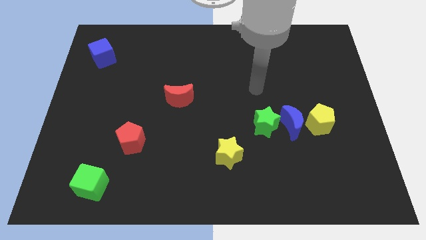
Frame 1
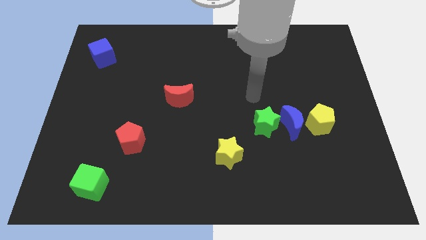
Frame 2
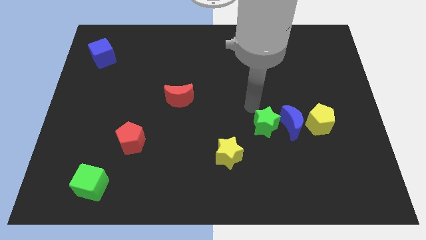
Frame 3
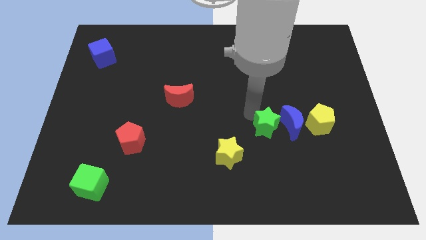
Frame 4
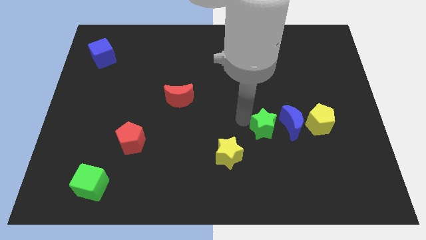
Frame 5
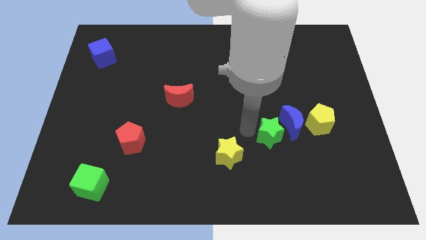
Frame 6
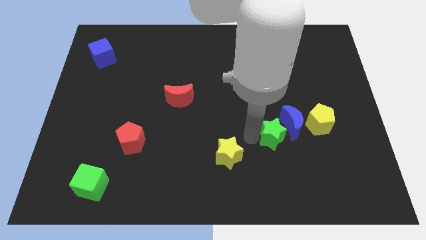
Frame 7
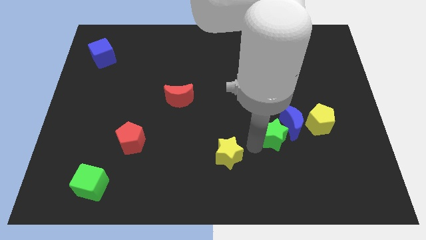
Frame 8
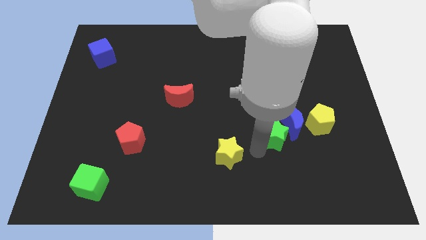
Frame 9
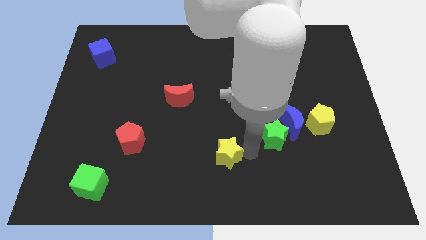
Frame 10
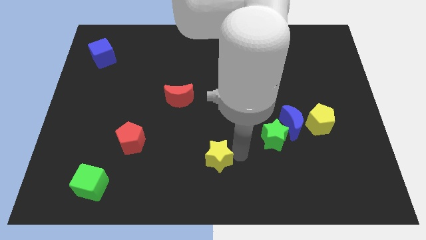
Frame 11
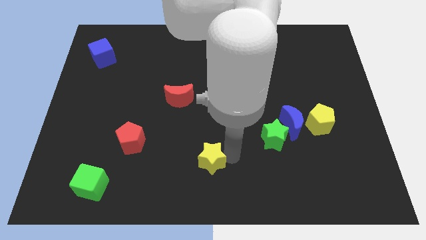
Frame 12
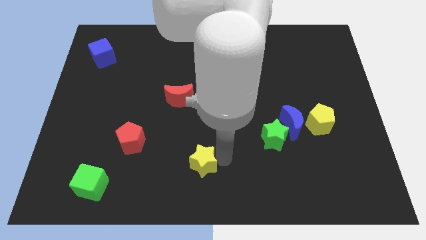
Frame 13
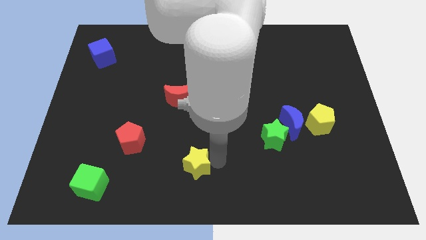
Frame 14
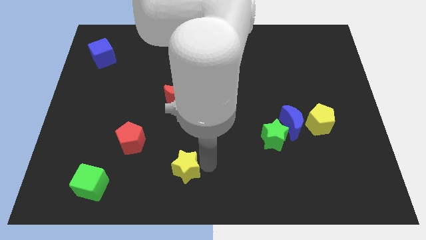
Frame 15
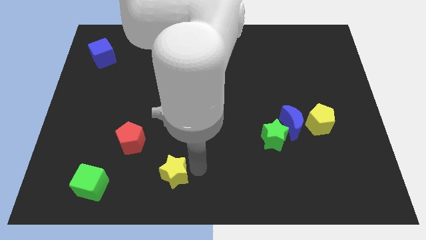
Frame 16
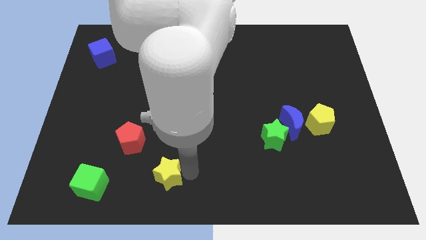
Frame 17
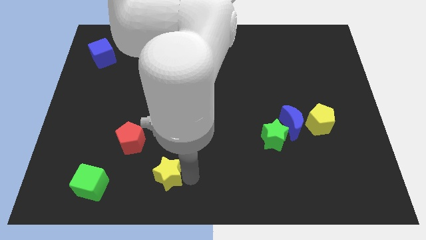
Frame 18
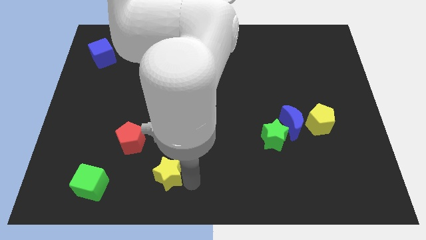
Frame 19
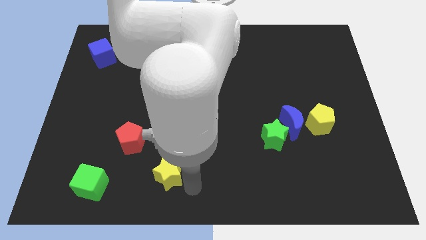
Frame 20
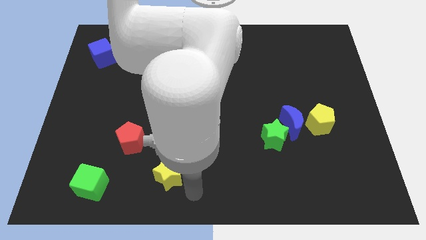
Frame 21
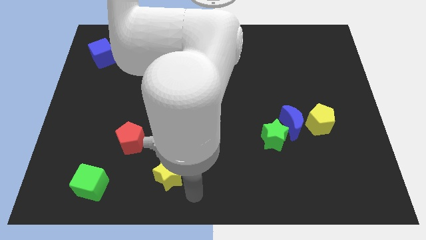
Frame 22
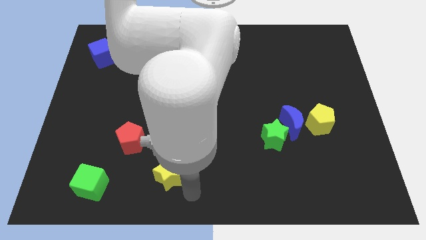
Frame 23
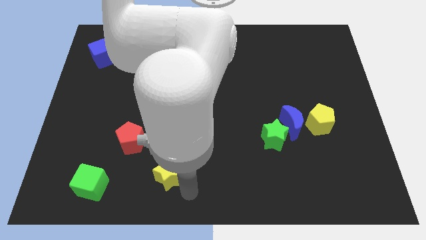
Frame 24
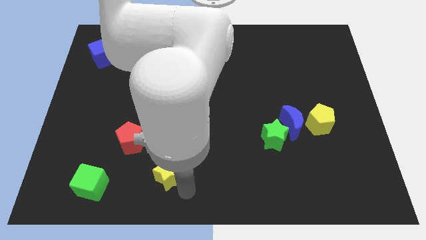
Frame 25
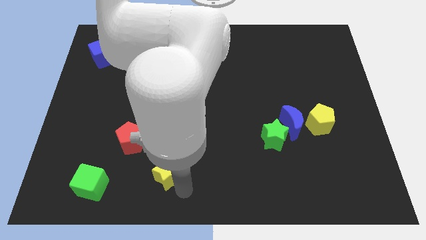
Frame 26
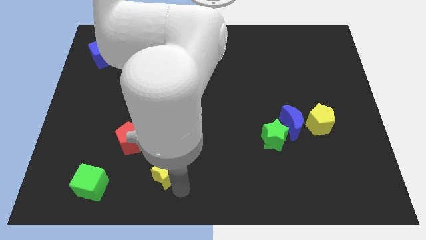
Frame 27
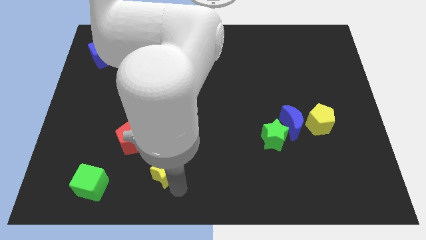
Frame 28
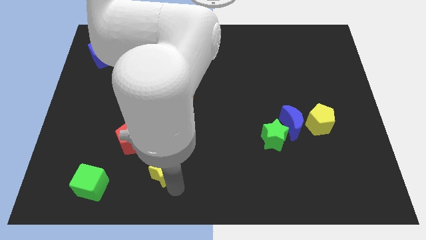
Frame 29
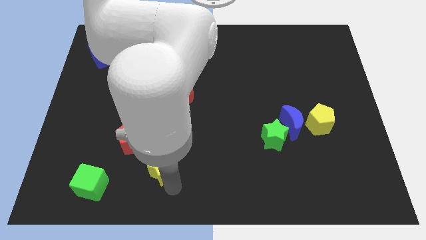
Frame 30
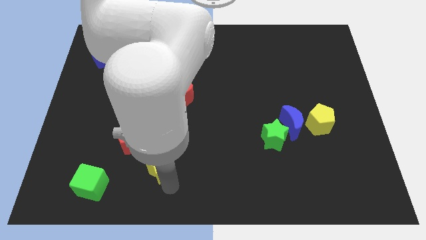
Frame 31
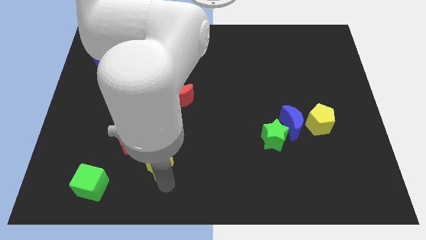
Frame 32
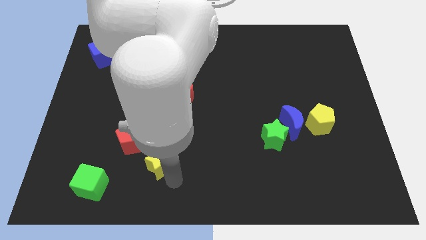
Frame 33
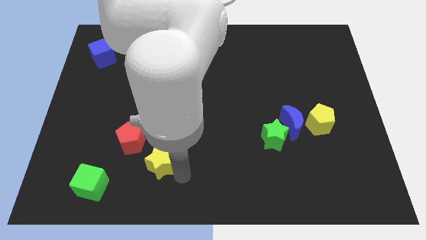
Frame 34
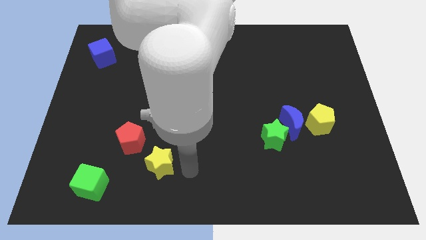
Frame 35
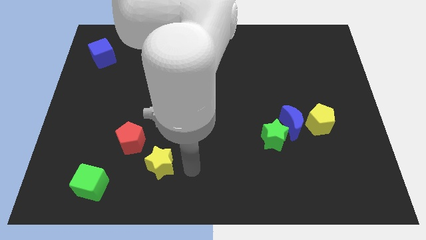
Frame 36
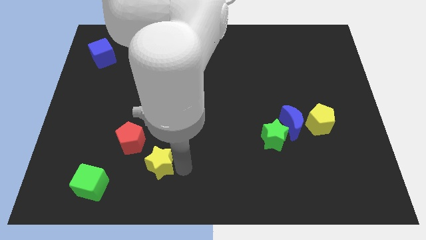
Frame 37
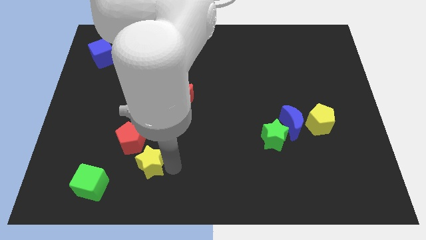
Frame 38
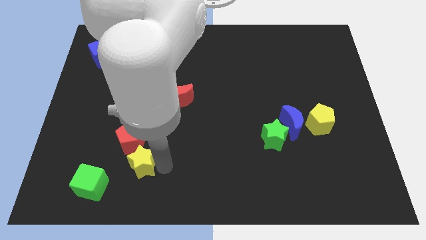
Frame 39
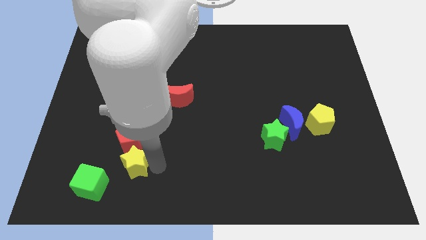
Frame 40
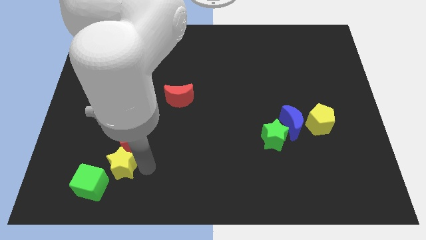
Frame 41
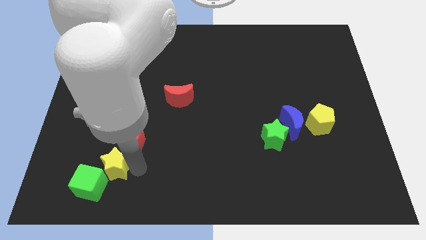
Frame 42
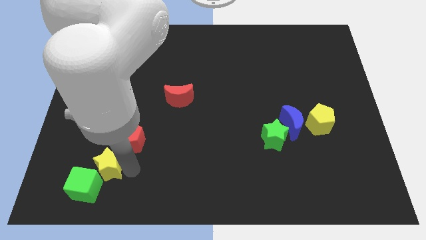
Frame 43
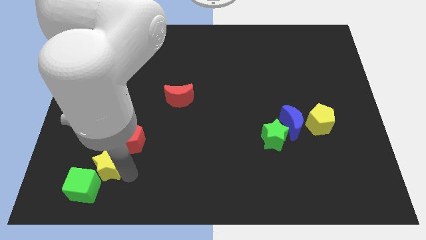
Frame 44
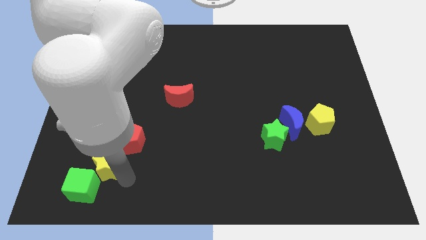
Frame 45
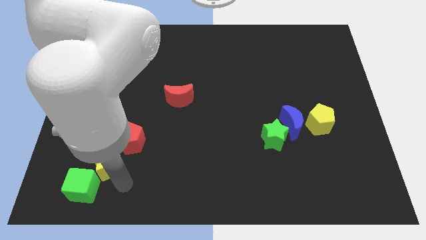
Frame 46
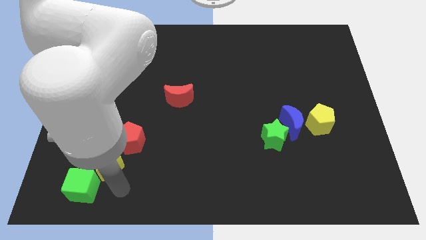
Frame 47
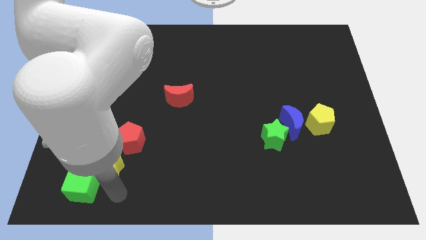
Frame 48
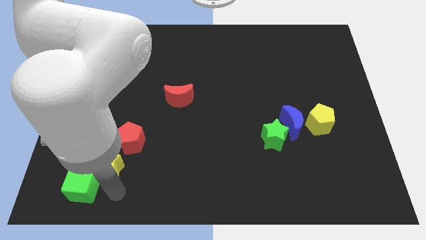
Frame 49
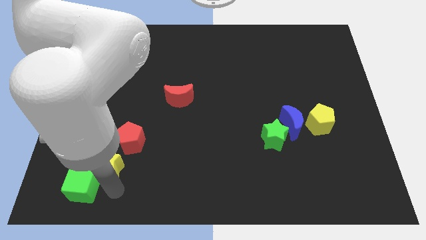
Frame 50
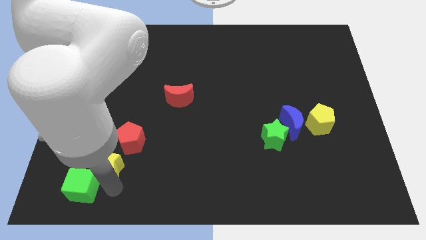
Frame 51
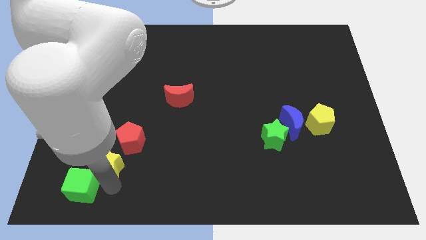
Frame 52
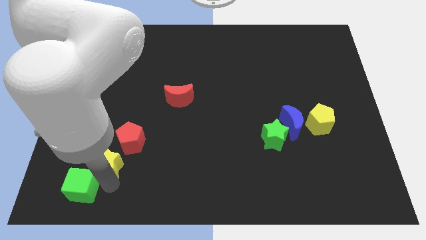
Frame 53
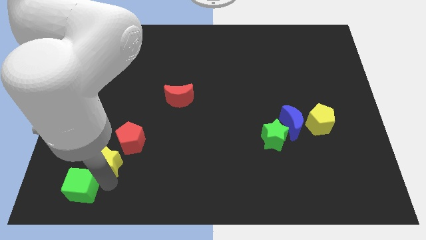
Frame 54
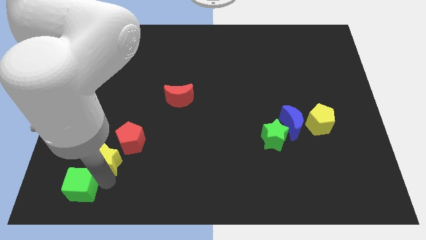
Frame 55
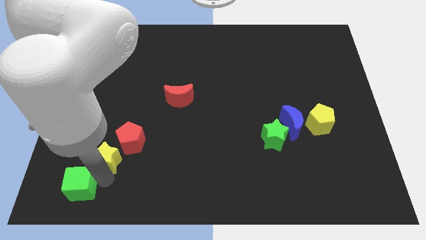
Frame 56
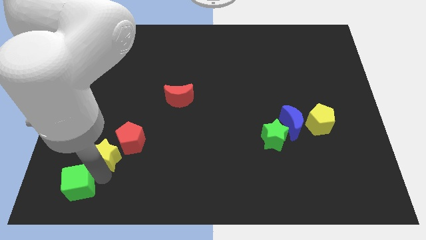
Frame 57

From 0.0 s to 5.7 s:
push the yellow star to the left side of the red pentagon

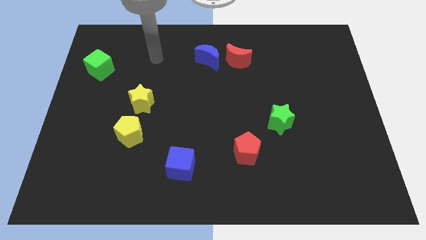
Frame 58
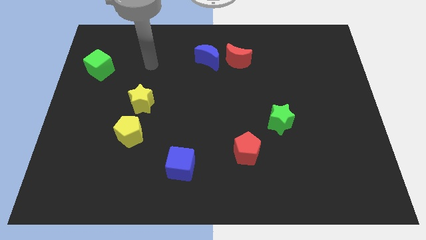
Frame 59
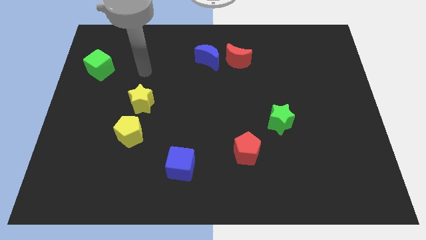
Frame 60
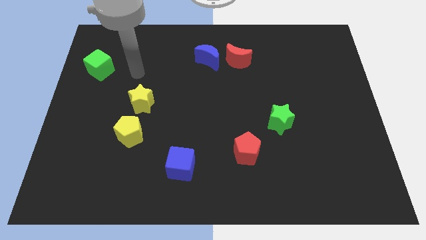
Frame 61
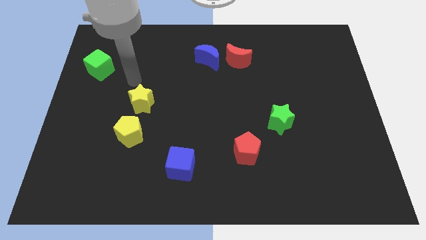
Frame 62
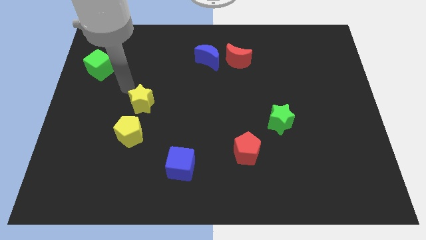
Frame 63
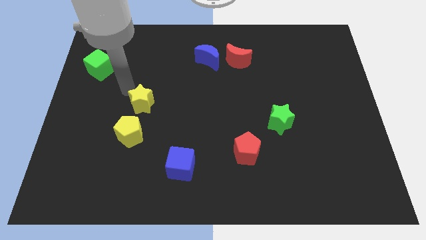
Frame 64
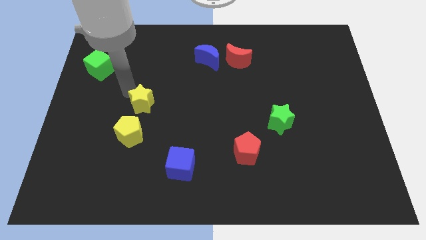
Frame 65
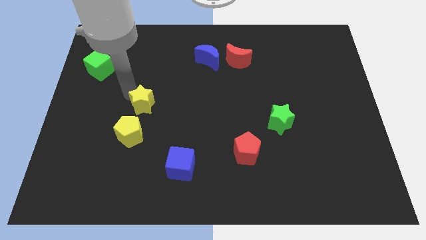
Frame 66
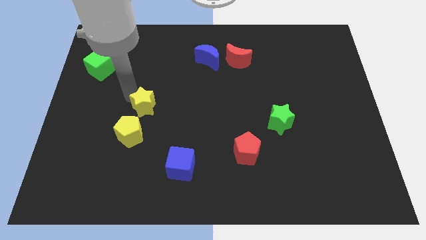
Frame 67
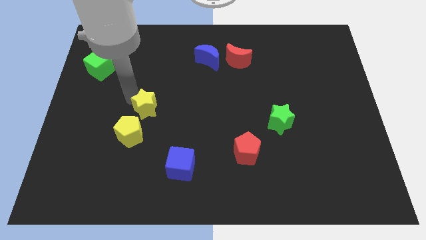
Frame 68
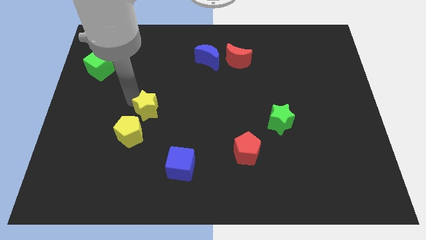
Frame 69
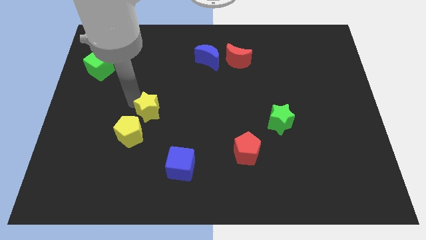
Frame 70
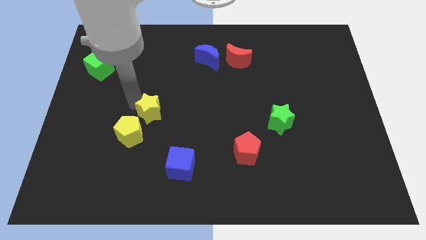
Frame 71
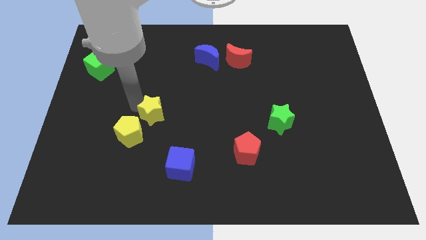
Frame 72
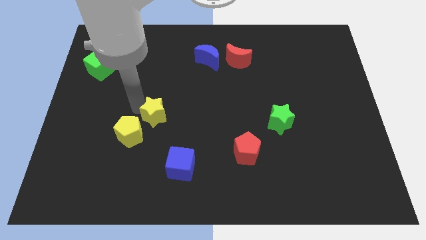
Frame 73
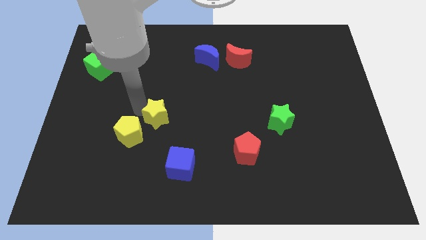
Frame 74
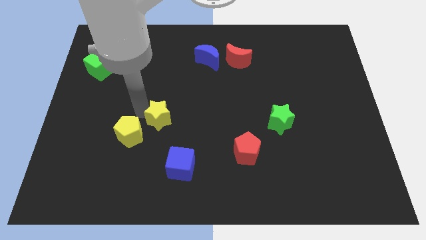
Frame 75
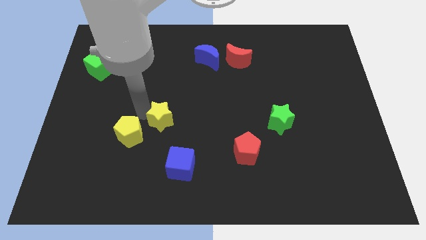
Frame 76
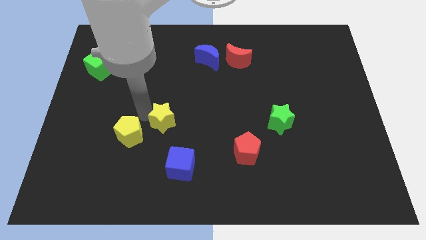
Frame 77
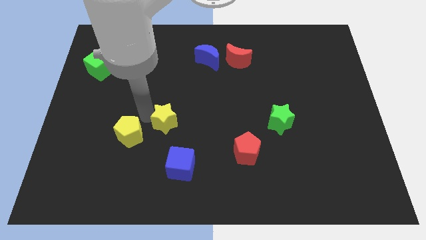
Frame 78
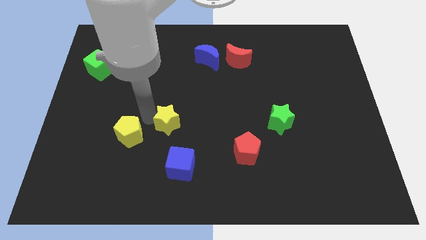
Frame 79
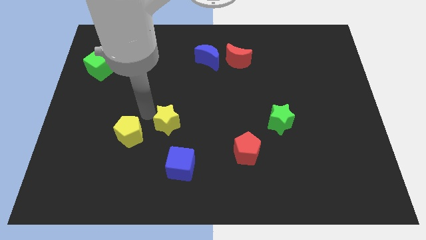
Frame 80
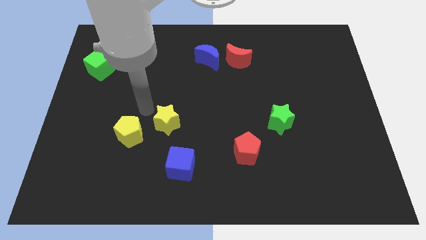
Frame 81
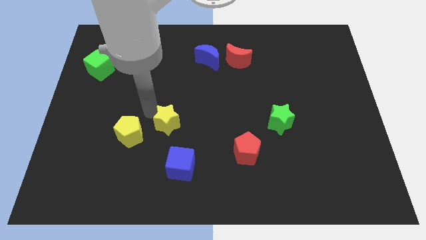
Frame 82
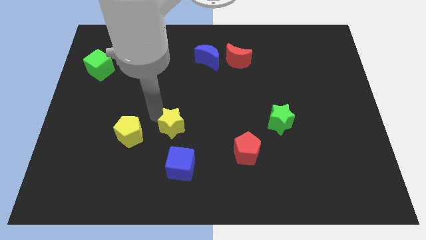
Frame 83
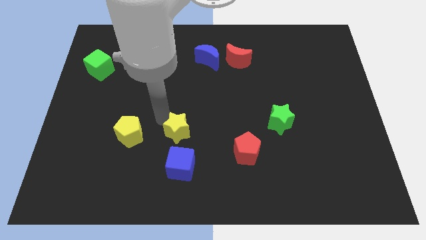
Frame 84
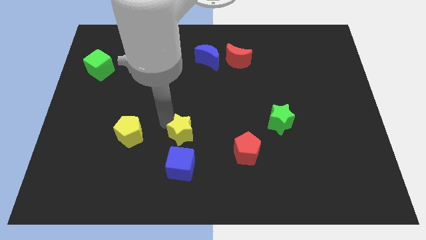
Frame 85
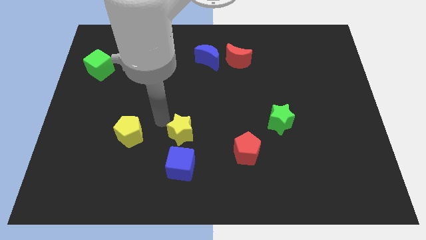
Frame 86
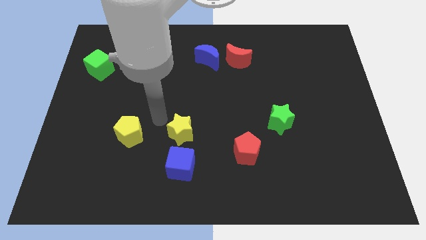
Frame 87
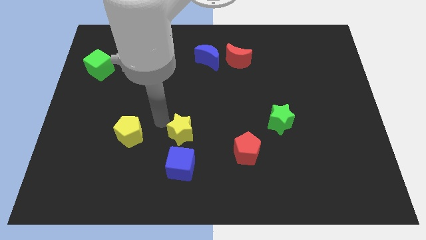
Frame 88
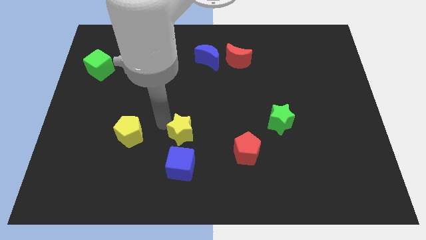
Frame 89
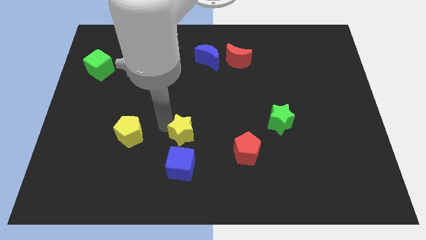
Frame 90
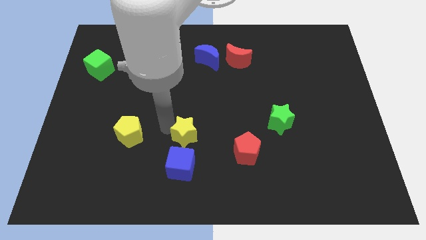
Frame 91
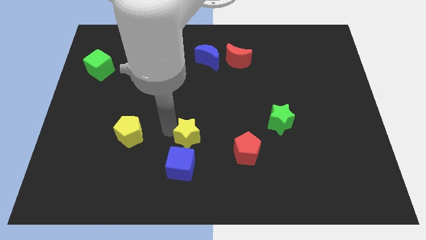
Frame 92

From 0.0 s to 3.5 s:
put the yellow star diagonally up and to the right of the blue cube
